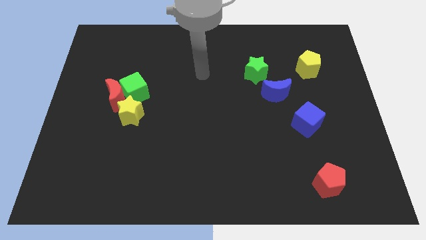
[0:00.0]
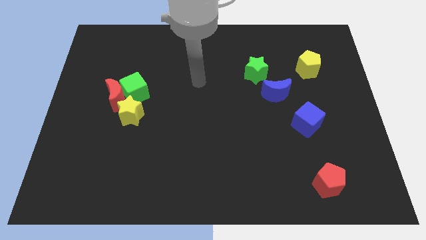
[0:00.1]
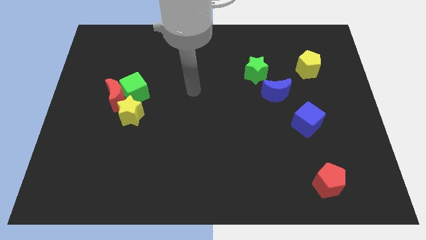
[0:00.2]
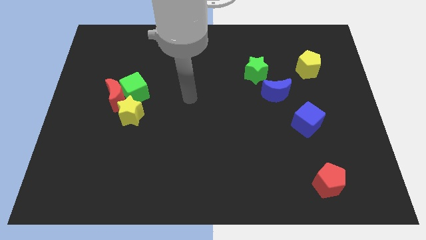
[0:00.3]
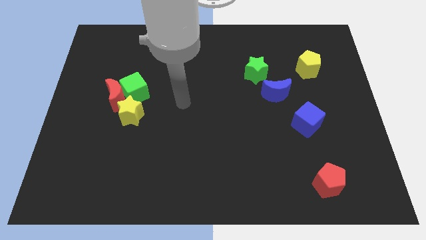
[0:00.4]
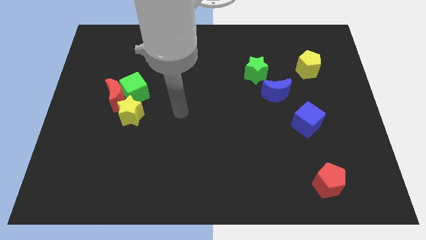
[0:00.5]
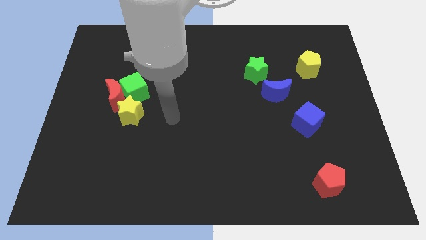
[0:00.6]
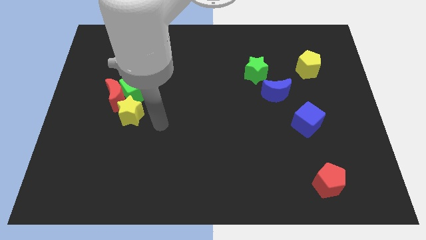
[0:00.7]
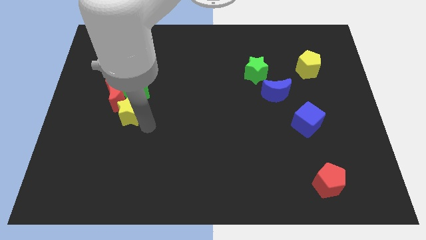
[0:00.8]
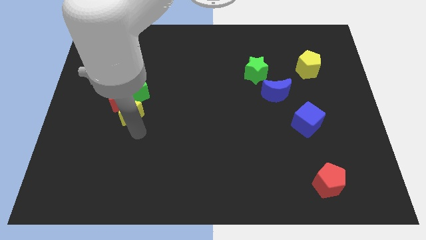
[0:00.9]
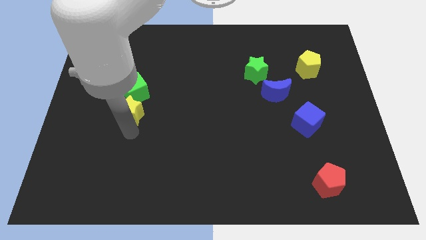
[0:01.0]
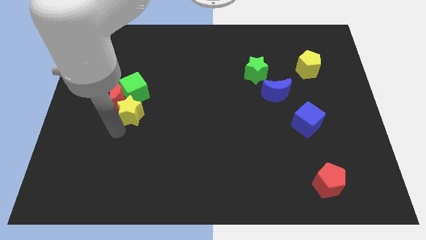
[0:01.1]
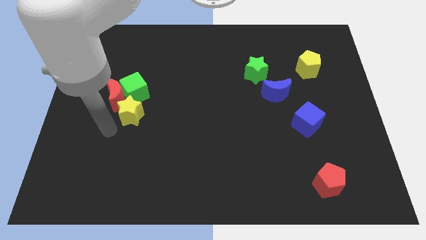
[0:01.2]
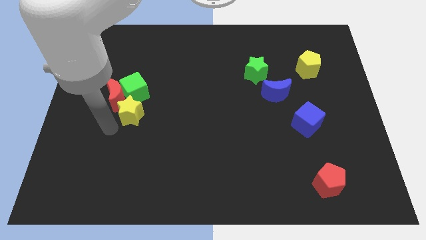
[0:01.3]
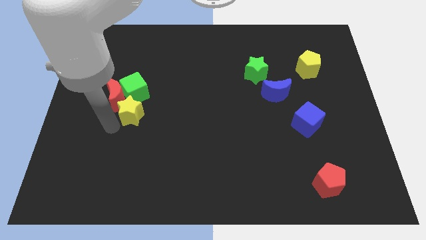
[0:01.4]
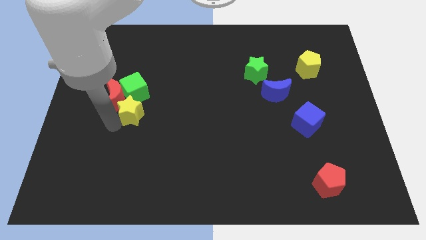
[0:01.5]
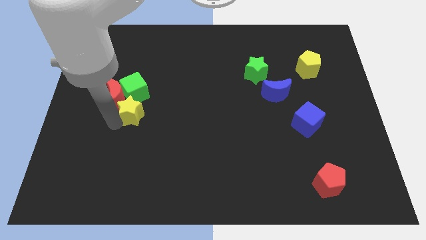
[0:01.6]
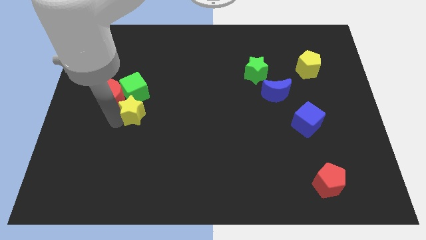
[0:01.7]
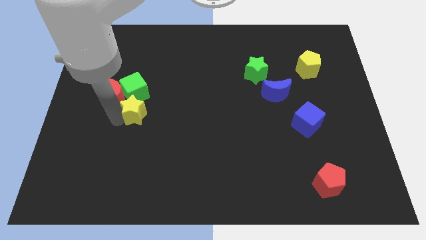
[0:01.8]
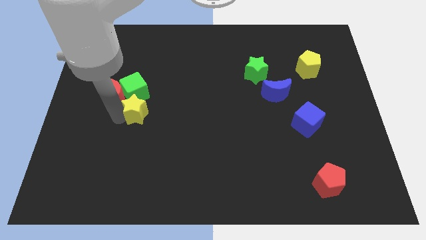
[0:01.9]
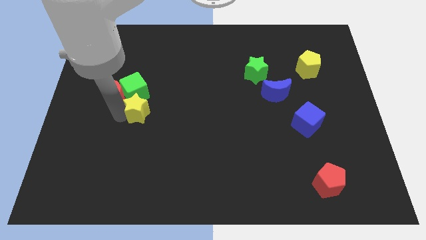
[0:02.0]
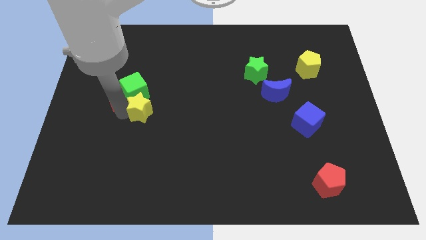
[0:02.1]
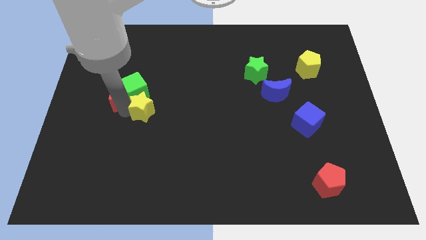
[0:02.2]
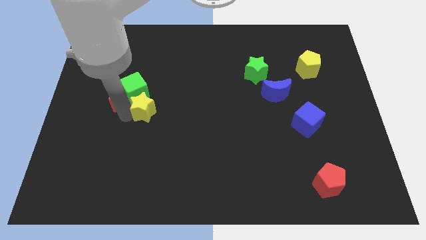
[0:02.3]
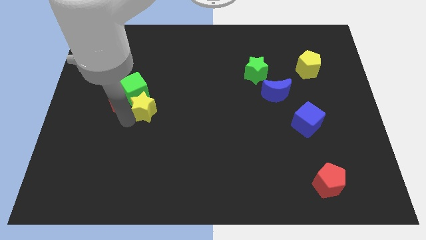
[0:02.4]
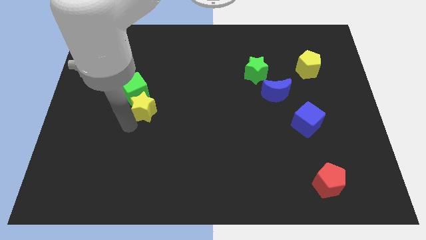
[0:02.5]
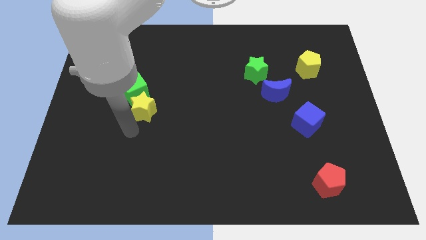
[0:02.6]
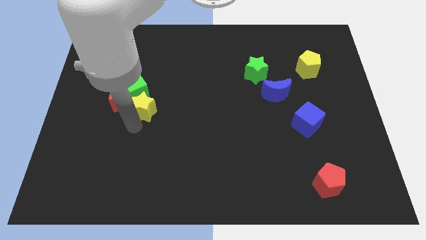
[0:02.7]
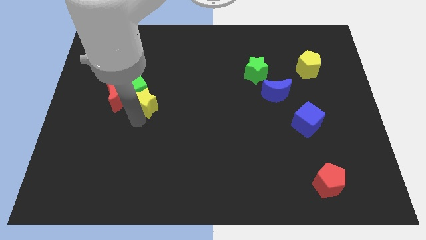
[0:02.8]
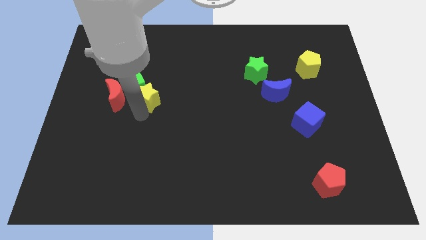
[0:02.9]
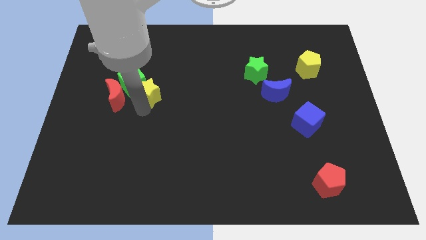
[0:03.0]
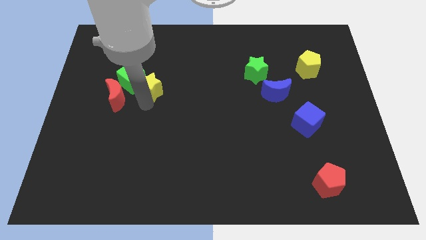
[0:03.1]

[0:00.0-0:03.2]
push the yellow star a bit up

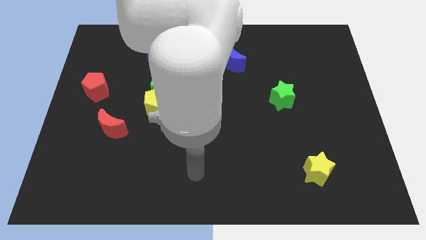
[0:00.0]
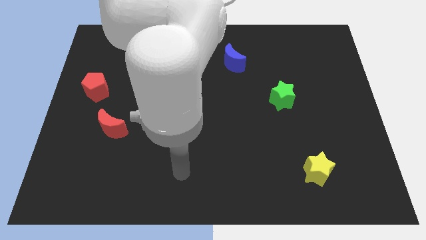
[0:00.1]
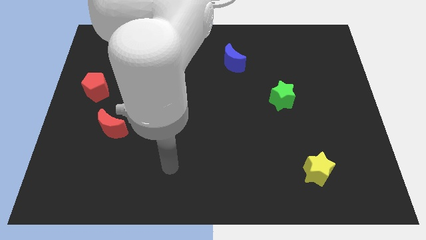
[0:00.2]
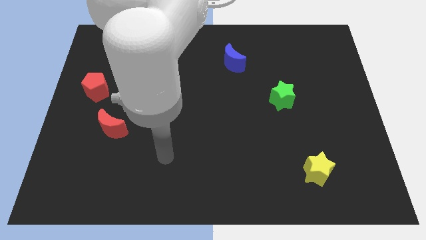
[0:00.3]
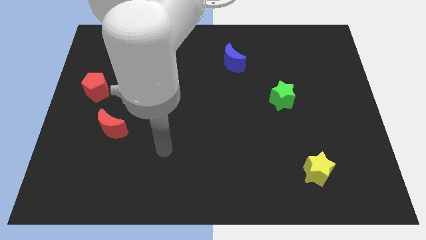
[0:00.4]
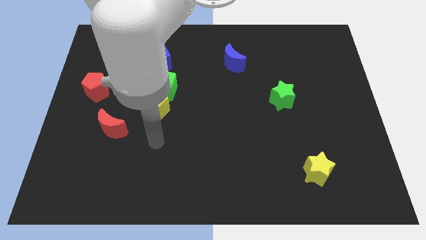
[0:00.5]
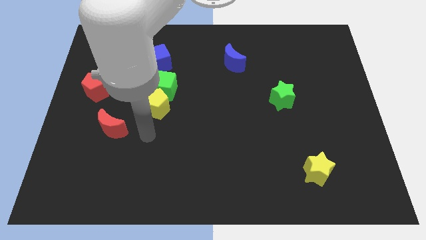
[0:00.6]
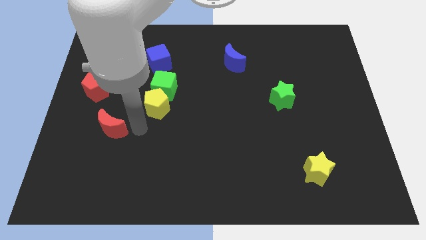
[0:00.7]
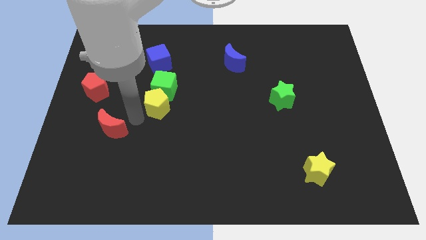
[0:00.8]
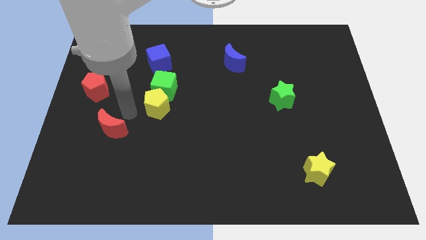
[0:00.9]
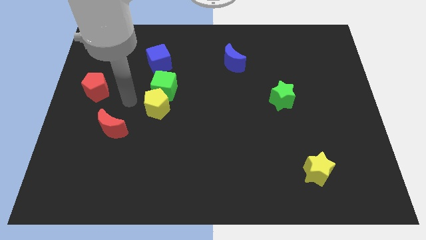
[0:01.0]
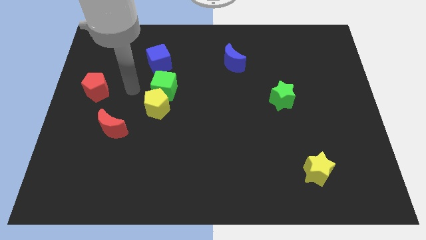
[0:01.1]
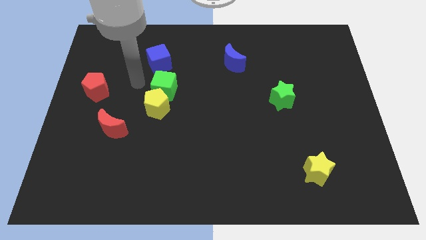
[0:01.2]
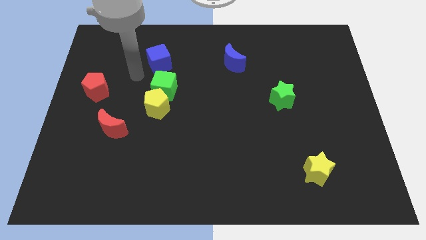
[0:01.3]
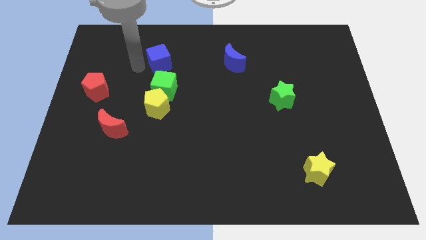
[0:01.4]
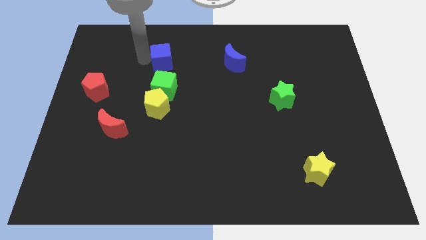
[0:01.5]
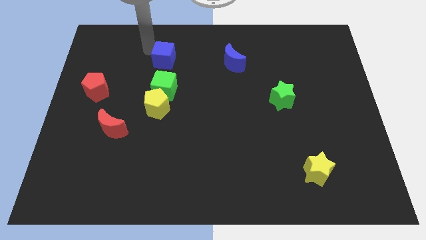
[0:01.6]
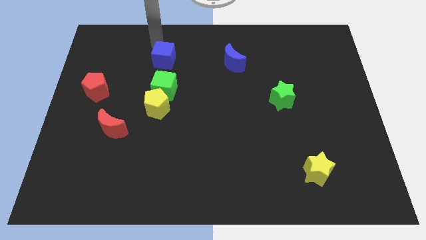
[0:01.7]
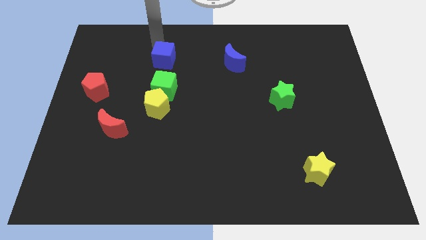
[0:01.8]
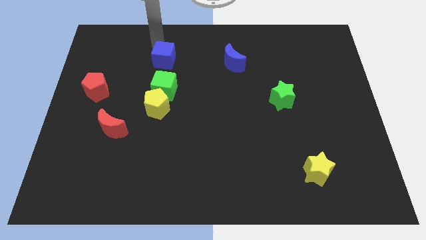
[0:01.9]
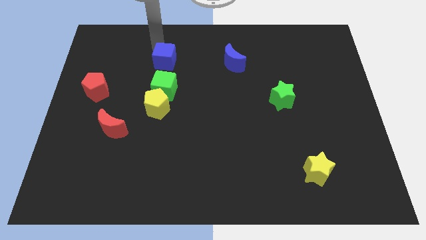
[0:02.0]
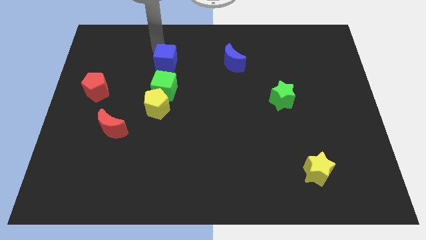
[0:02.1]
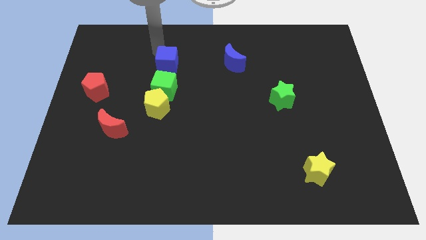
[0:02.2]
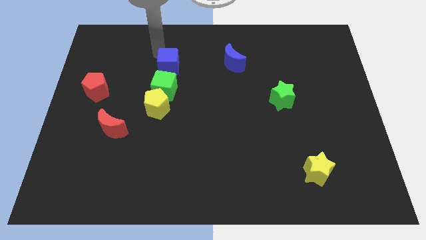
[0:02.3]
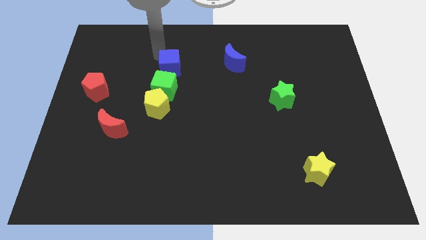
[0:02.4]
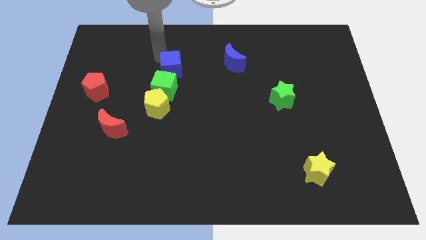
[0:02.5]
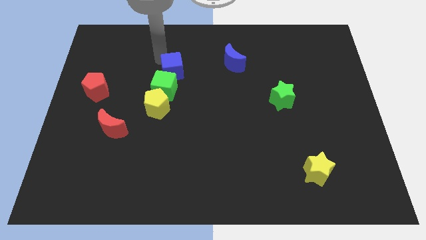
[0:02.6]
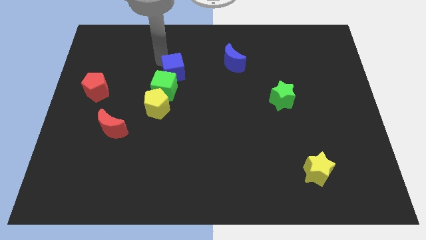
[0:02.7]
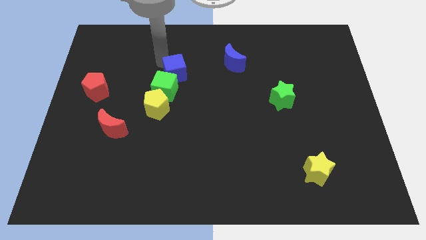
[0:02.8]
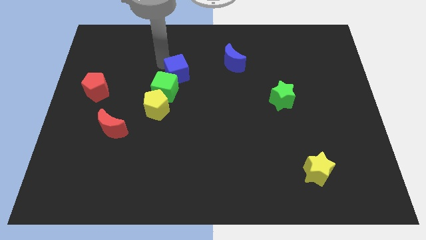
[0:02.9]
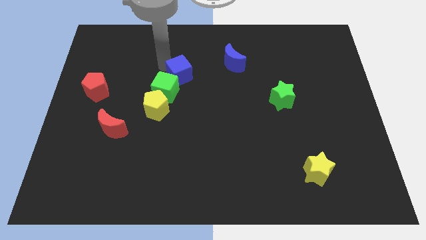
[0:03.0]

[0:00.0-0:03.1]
move the blue cube downwards and right diagonally somewhat

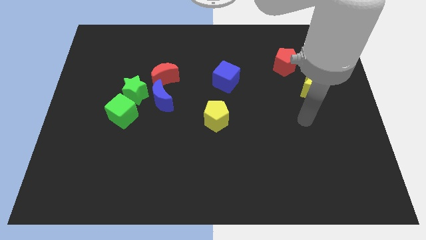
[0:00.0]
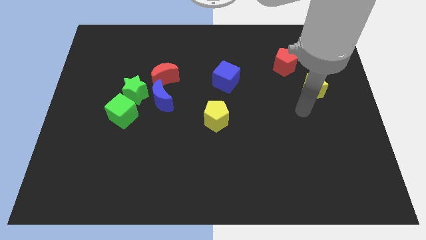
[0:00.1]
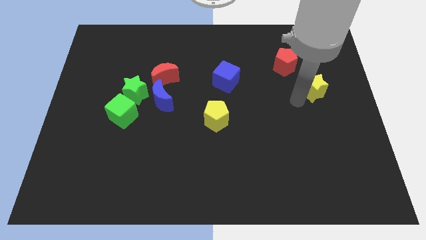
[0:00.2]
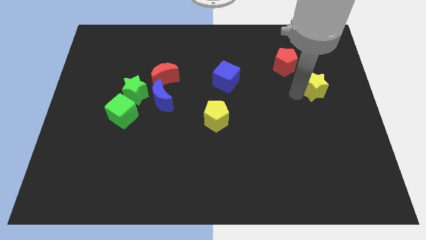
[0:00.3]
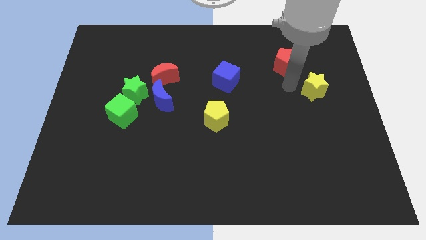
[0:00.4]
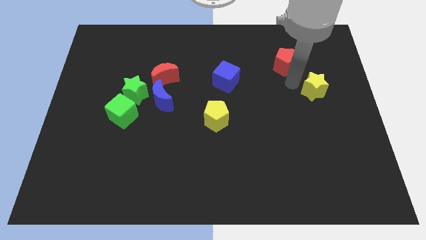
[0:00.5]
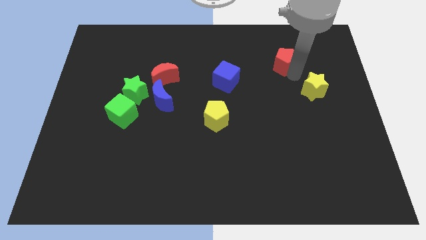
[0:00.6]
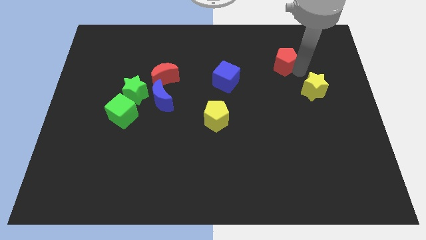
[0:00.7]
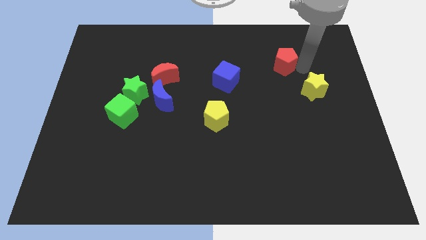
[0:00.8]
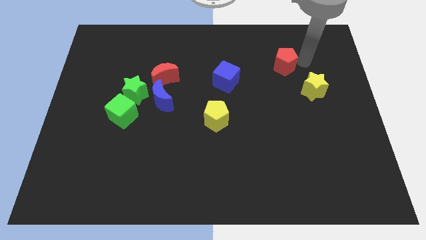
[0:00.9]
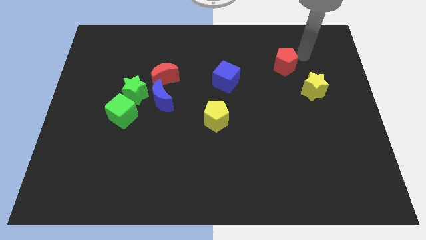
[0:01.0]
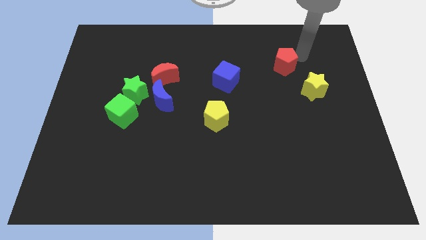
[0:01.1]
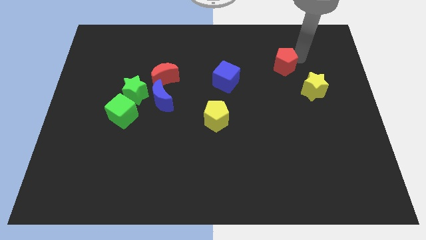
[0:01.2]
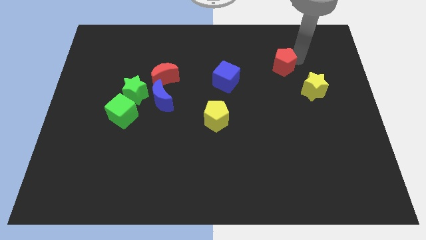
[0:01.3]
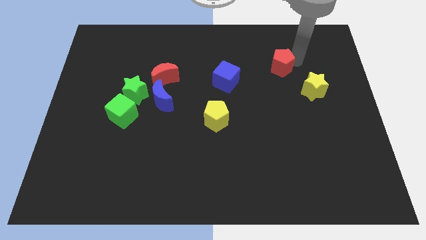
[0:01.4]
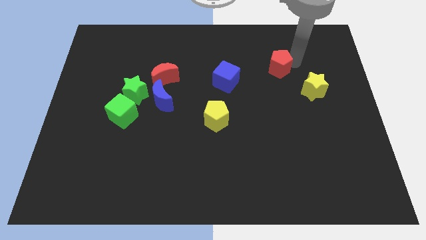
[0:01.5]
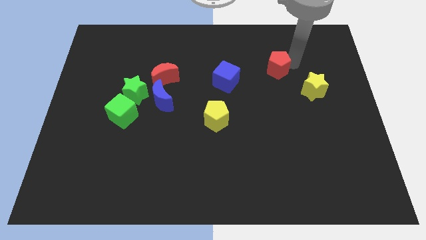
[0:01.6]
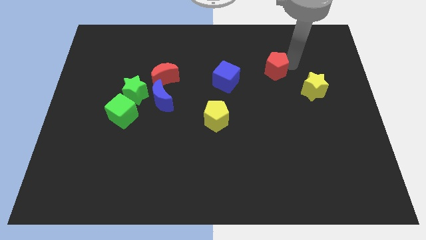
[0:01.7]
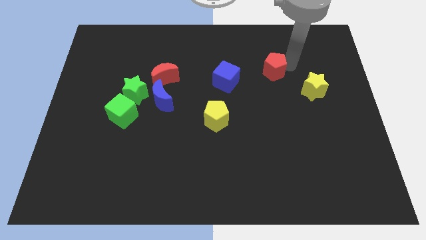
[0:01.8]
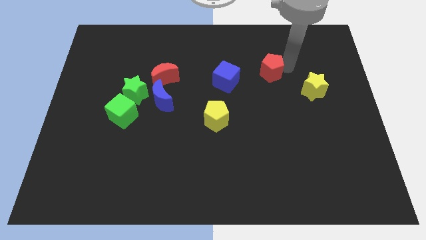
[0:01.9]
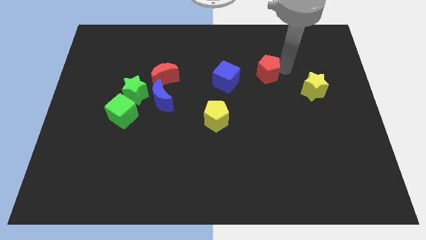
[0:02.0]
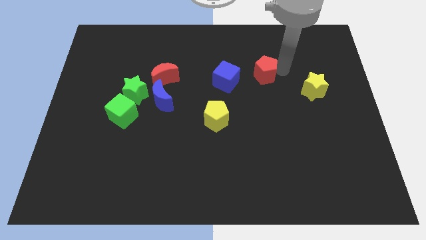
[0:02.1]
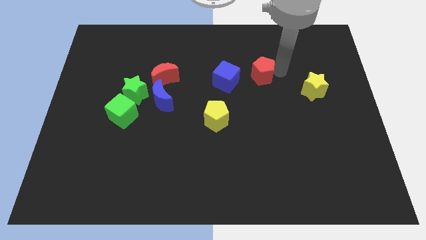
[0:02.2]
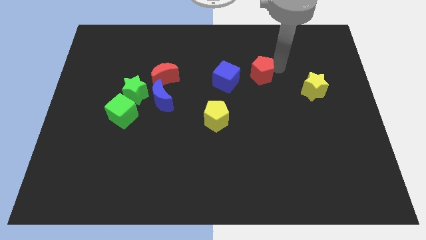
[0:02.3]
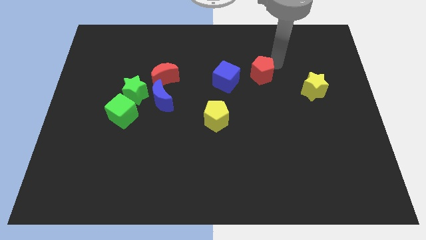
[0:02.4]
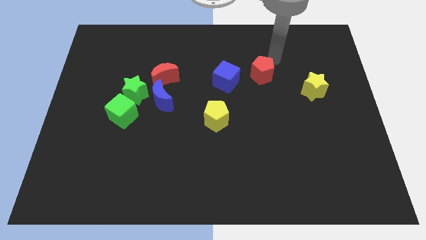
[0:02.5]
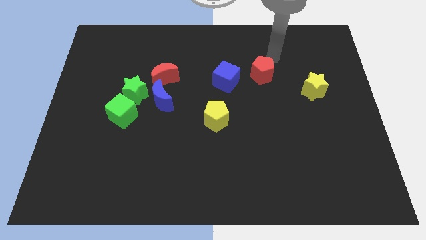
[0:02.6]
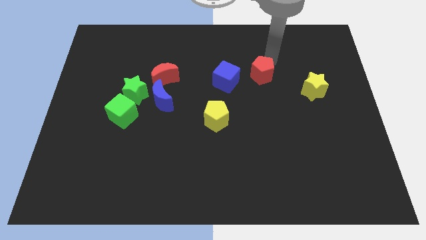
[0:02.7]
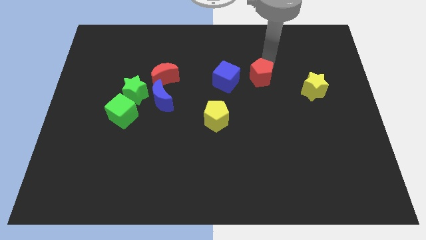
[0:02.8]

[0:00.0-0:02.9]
slide the red pentagon a little down and then left
